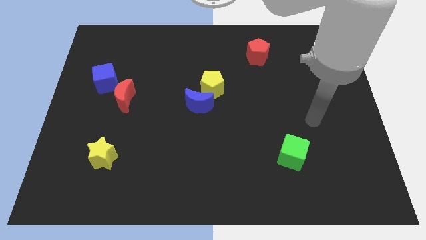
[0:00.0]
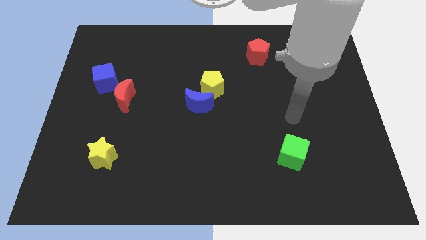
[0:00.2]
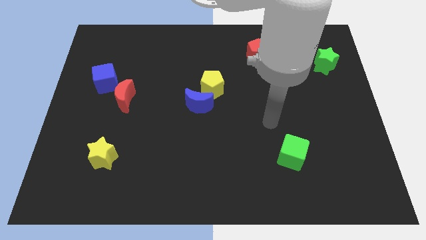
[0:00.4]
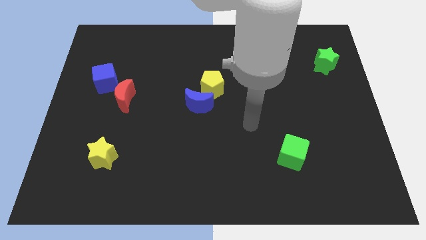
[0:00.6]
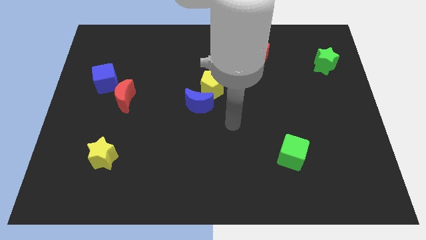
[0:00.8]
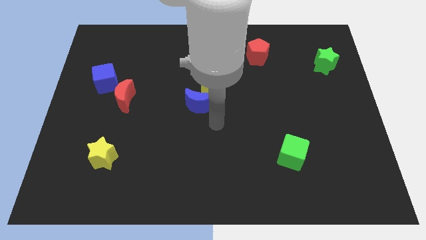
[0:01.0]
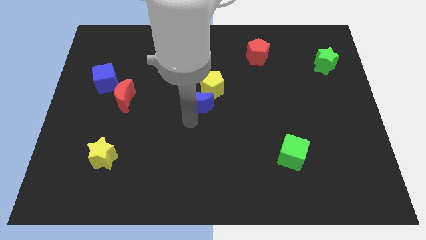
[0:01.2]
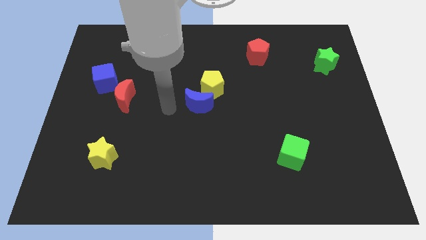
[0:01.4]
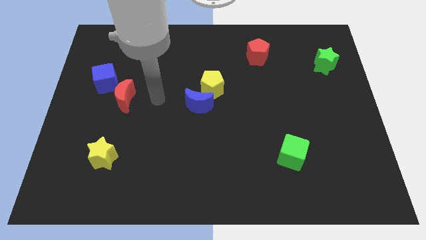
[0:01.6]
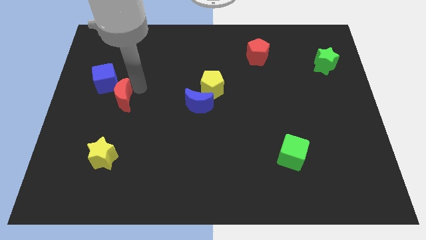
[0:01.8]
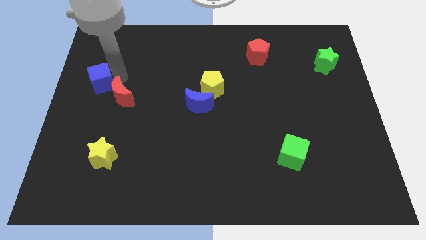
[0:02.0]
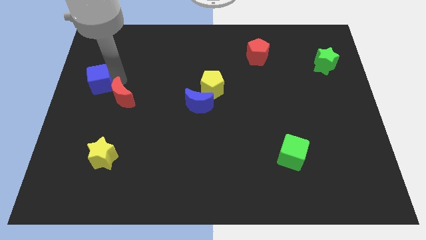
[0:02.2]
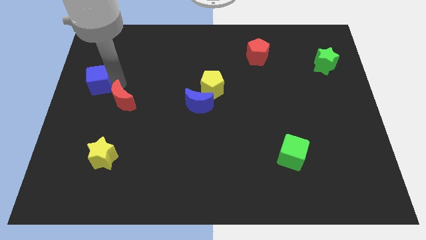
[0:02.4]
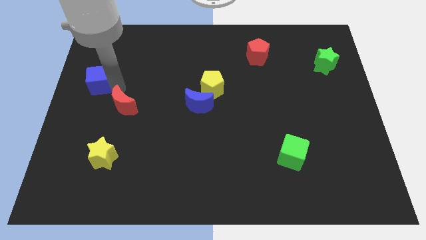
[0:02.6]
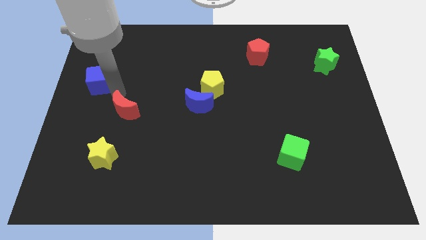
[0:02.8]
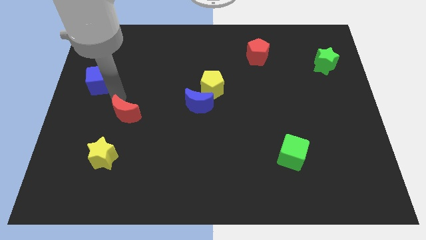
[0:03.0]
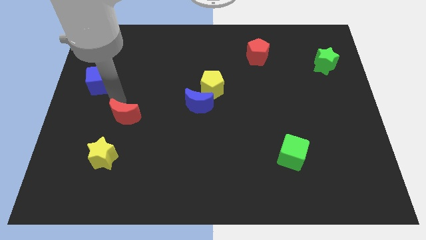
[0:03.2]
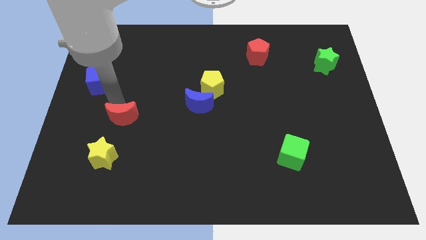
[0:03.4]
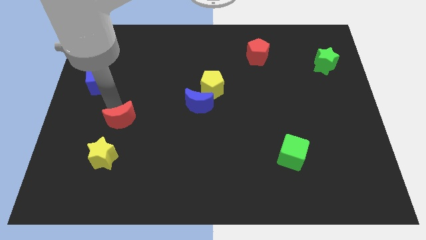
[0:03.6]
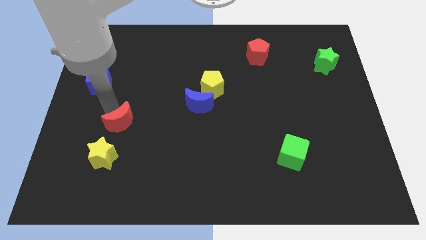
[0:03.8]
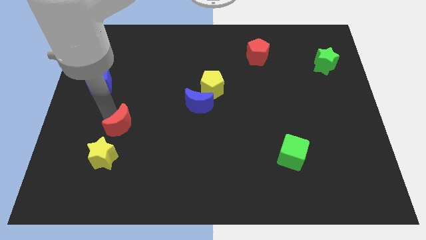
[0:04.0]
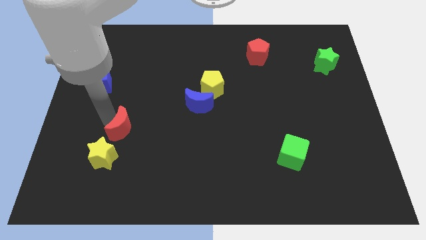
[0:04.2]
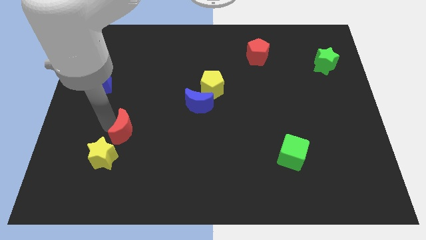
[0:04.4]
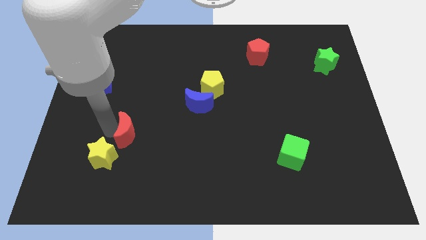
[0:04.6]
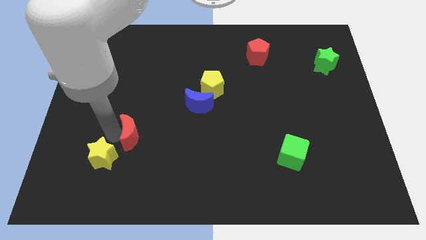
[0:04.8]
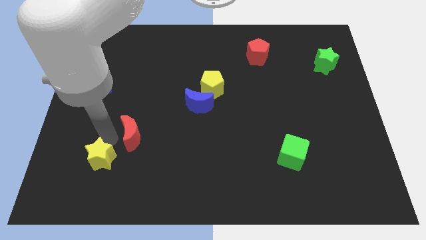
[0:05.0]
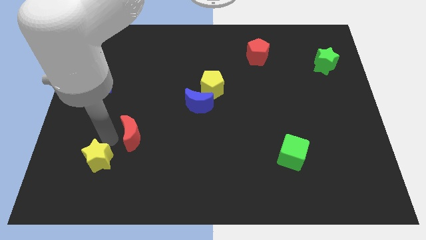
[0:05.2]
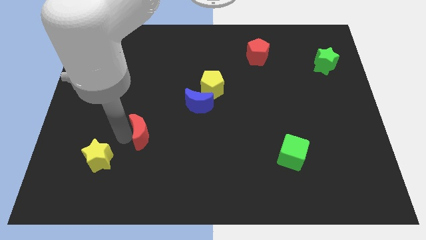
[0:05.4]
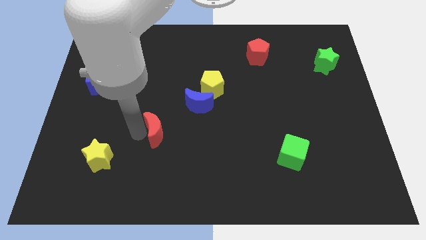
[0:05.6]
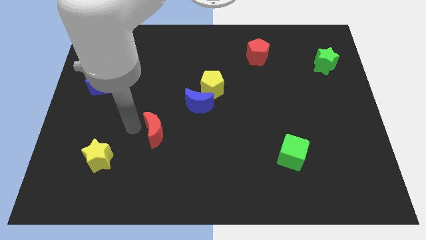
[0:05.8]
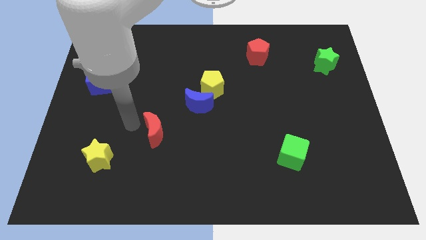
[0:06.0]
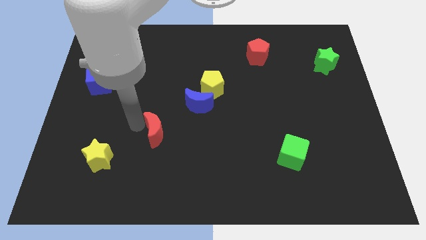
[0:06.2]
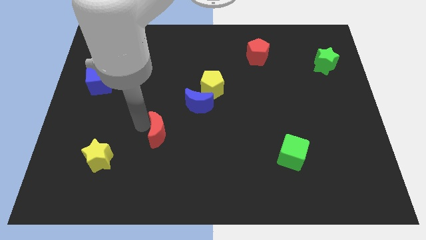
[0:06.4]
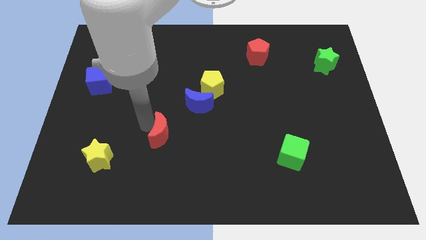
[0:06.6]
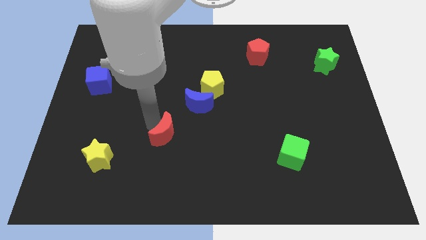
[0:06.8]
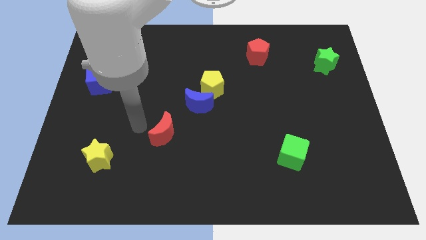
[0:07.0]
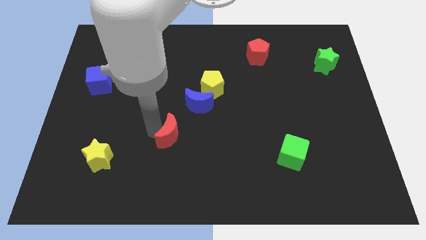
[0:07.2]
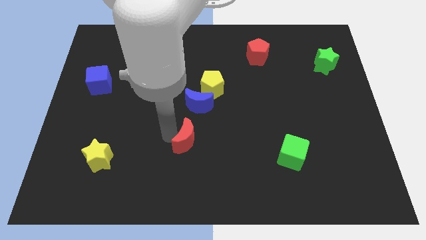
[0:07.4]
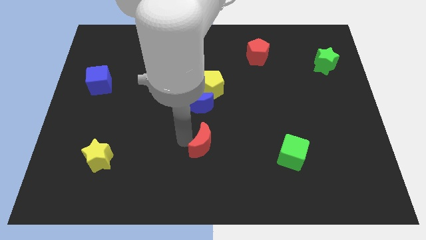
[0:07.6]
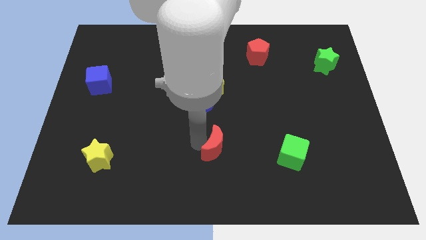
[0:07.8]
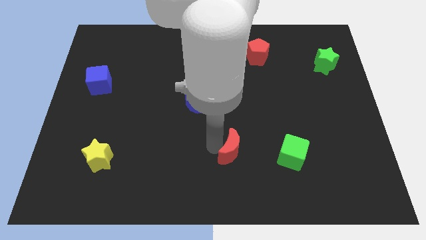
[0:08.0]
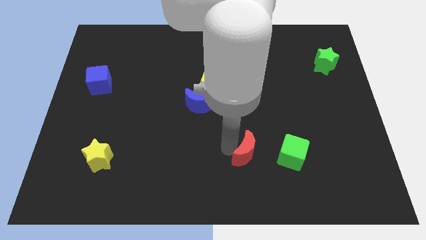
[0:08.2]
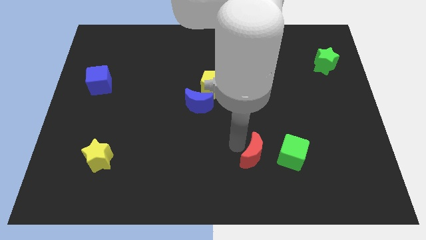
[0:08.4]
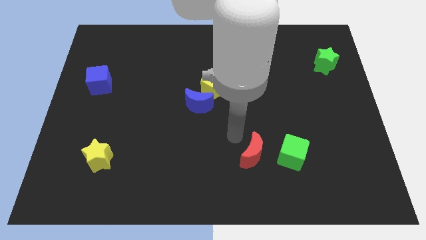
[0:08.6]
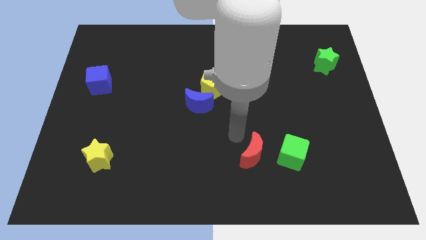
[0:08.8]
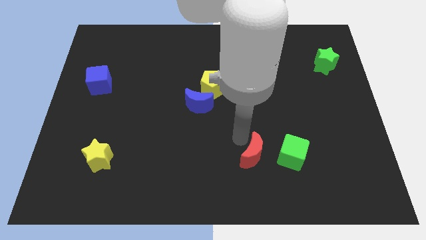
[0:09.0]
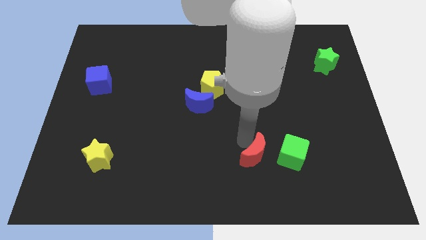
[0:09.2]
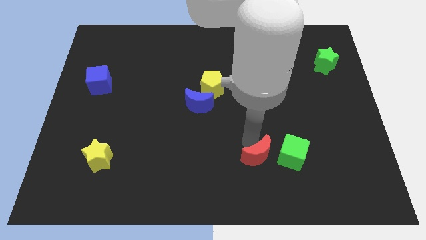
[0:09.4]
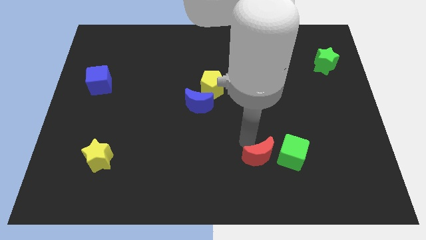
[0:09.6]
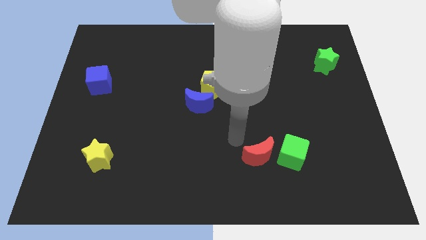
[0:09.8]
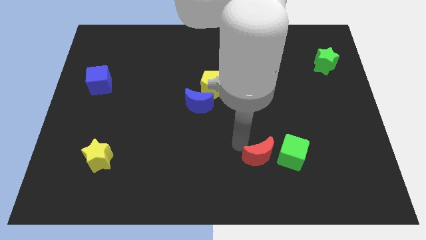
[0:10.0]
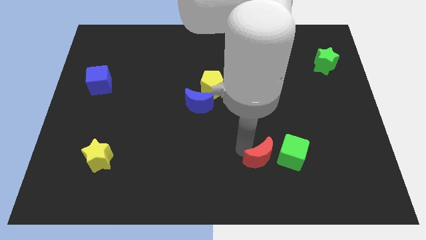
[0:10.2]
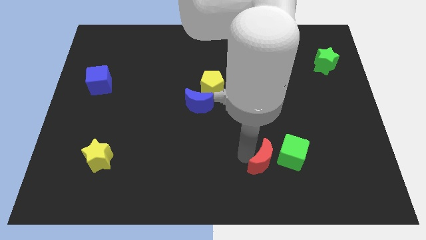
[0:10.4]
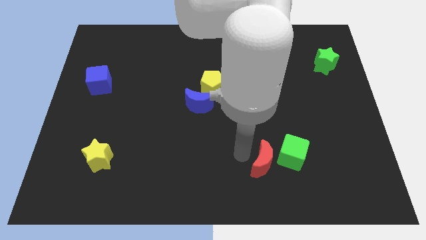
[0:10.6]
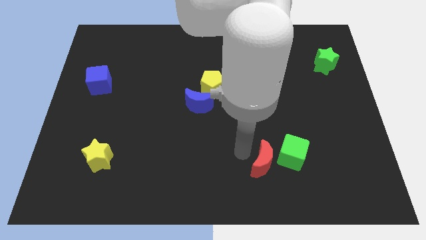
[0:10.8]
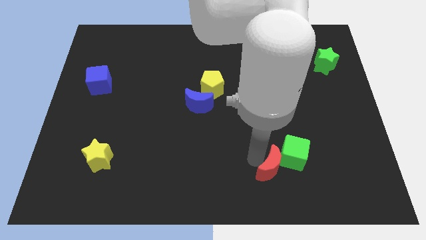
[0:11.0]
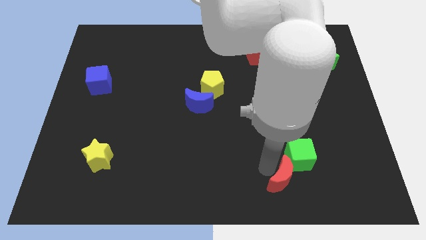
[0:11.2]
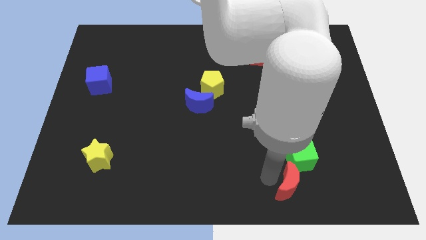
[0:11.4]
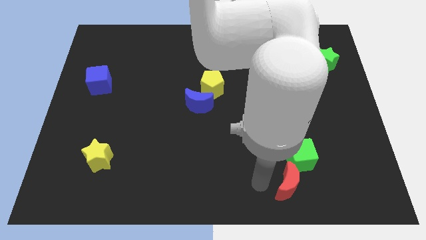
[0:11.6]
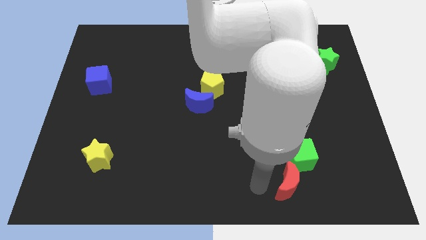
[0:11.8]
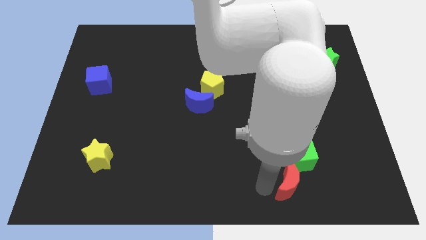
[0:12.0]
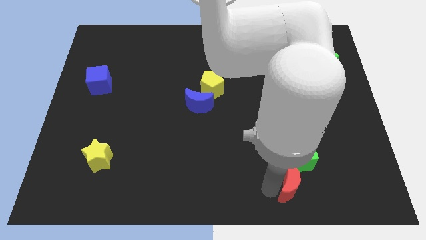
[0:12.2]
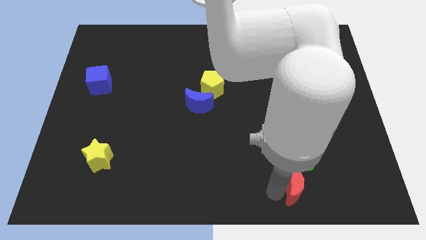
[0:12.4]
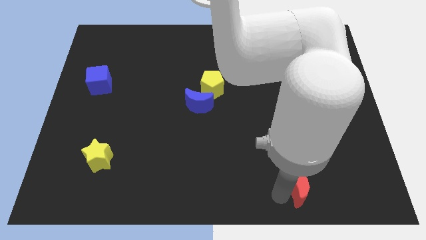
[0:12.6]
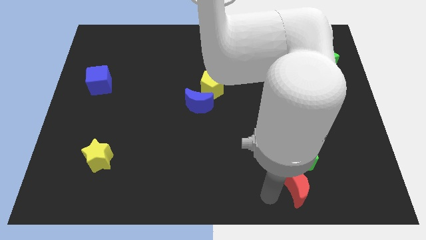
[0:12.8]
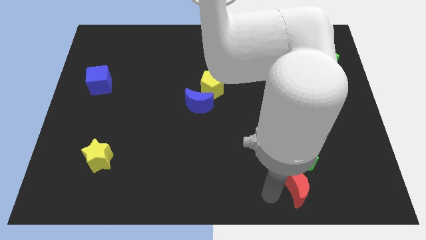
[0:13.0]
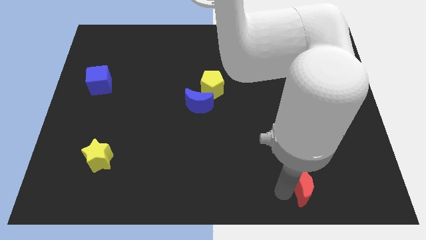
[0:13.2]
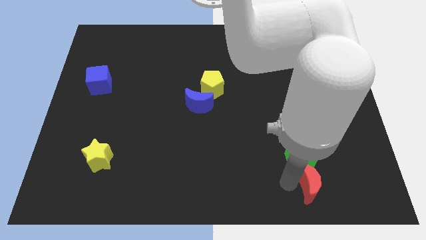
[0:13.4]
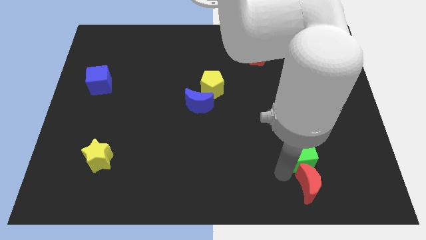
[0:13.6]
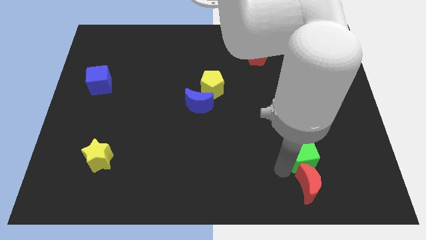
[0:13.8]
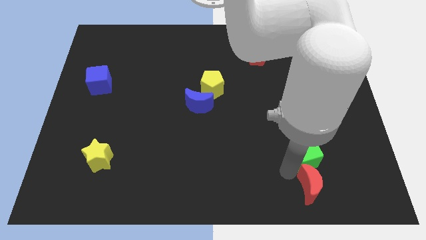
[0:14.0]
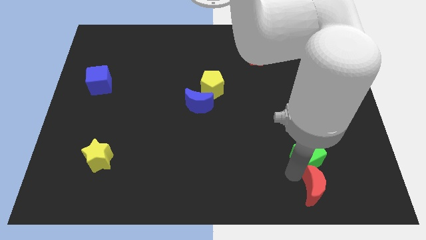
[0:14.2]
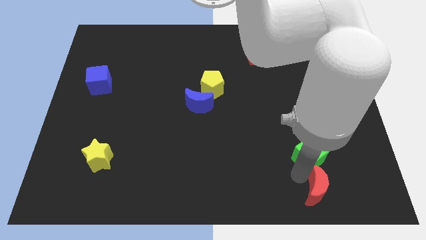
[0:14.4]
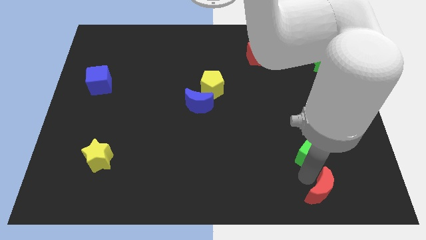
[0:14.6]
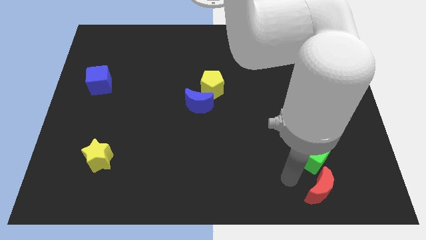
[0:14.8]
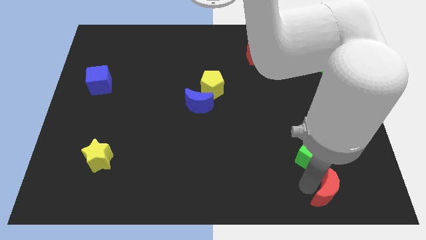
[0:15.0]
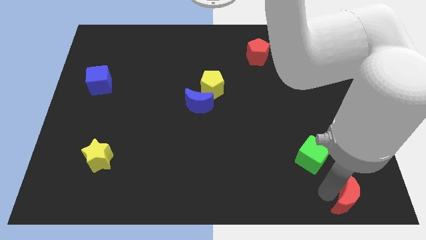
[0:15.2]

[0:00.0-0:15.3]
put the red moon to the bottom right

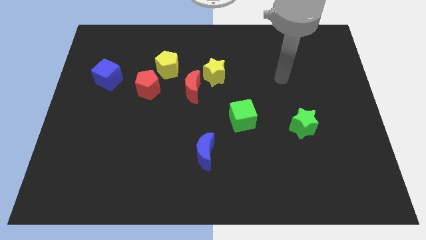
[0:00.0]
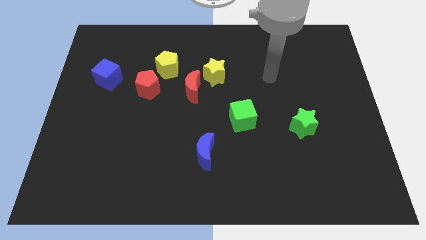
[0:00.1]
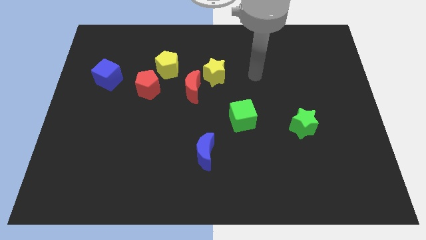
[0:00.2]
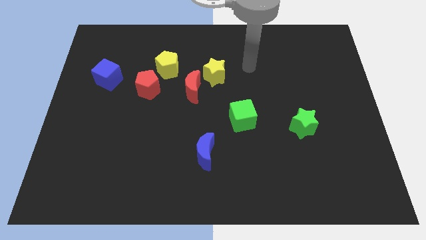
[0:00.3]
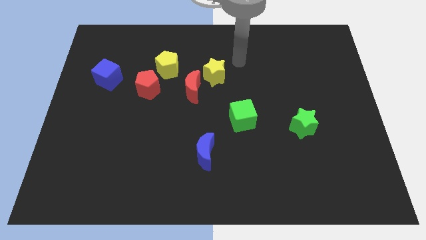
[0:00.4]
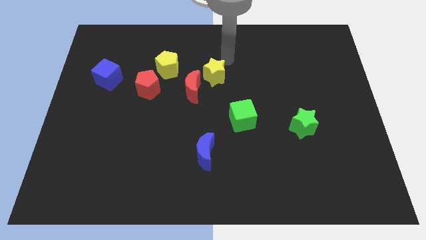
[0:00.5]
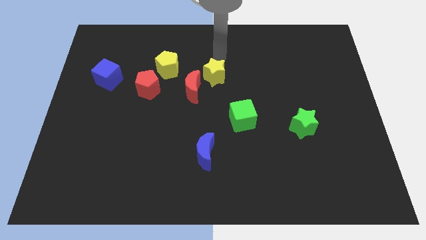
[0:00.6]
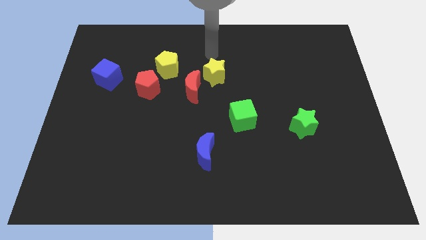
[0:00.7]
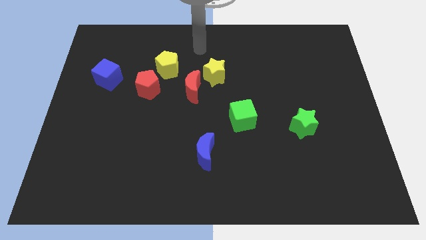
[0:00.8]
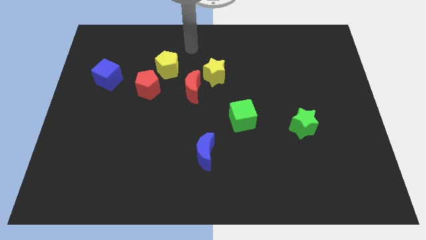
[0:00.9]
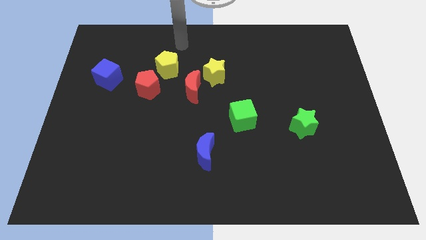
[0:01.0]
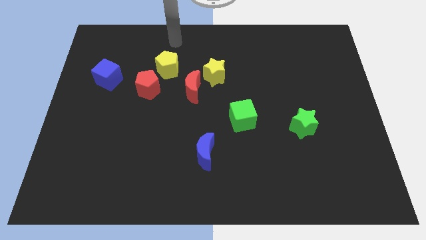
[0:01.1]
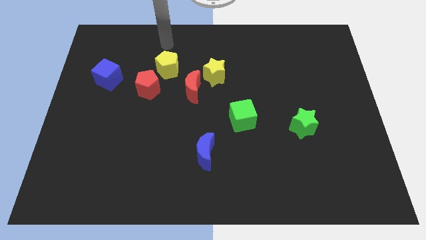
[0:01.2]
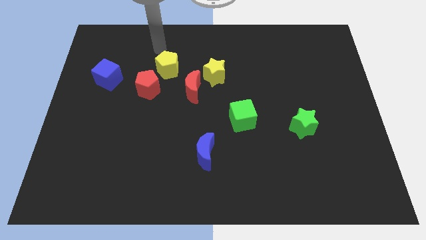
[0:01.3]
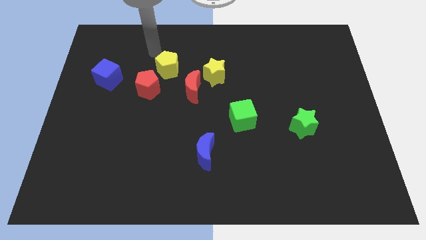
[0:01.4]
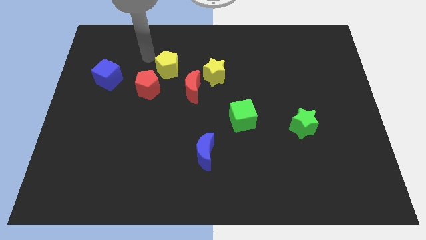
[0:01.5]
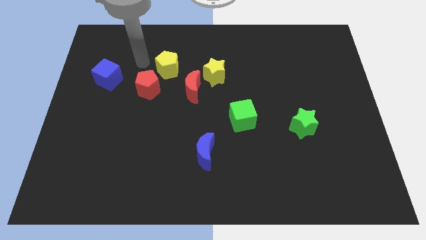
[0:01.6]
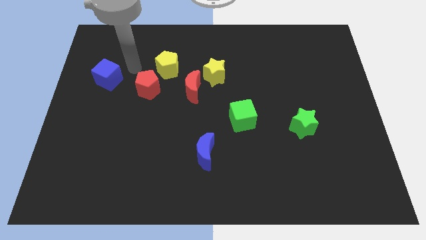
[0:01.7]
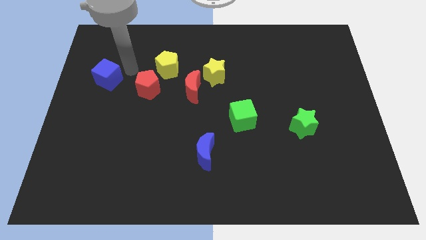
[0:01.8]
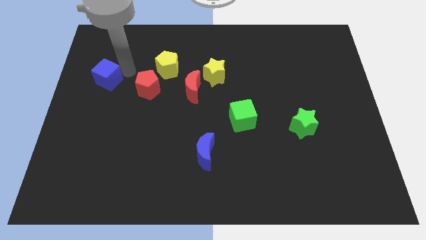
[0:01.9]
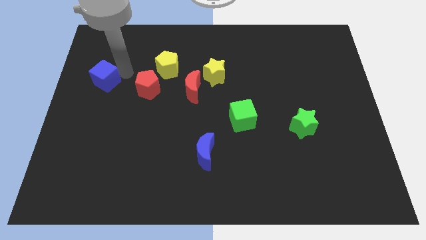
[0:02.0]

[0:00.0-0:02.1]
put the blue cube to the center left
